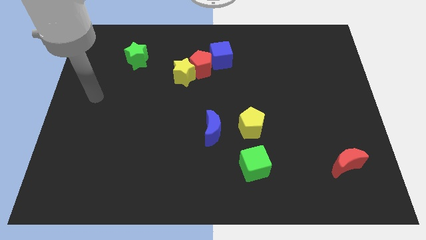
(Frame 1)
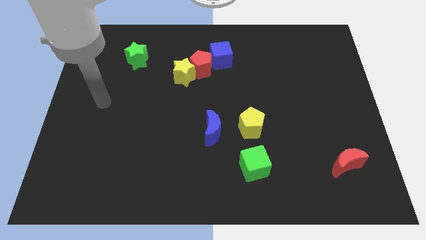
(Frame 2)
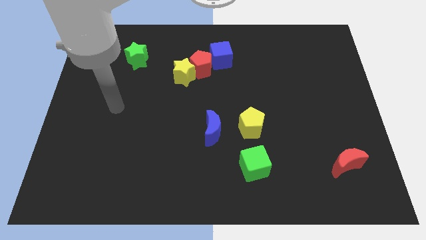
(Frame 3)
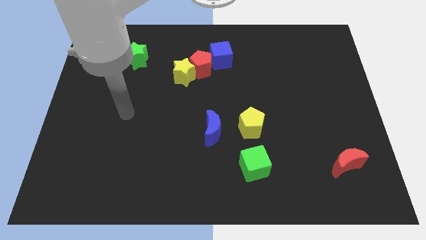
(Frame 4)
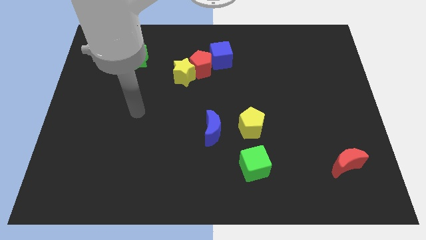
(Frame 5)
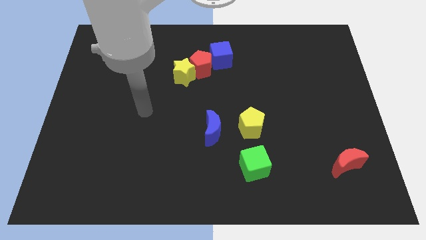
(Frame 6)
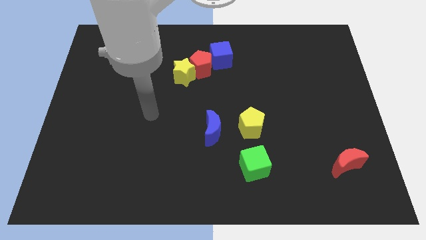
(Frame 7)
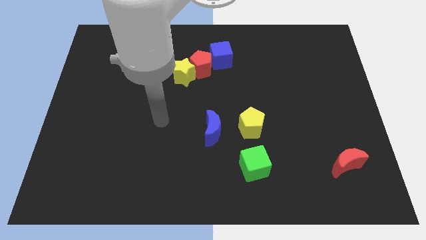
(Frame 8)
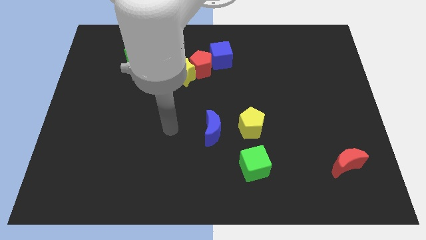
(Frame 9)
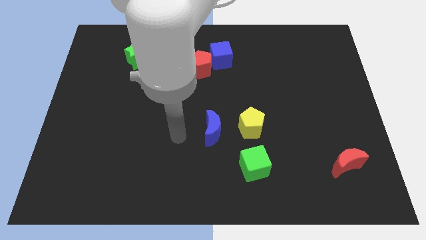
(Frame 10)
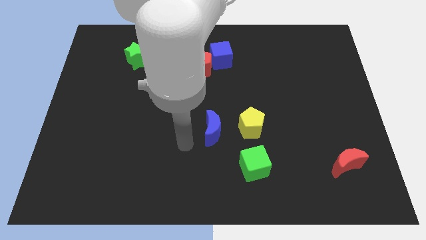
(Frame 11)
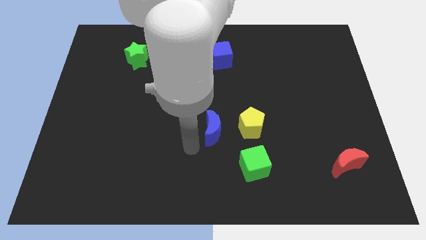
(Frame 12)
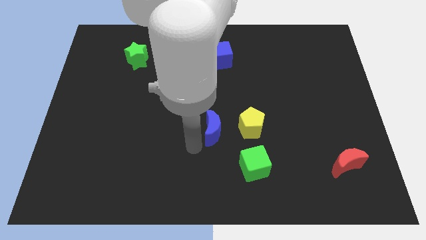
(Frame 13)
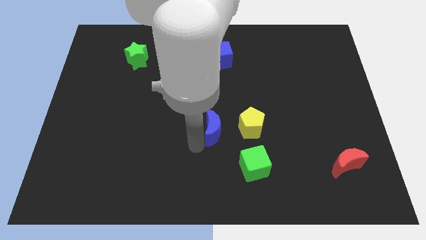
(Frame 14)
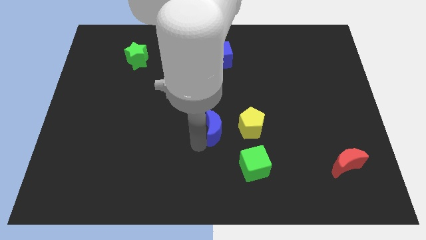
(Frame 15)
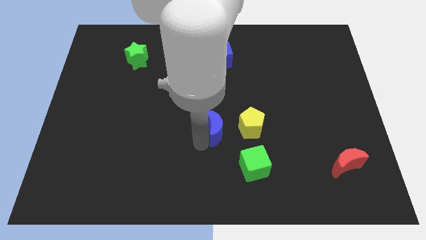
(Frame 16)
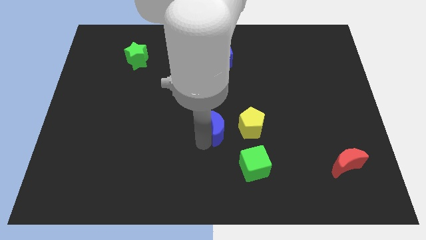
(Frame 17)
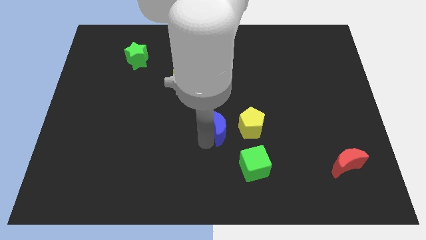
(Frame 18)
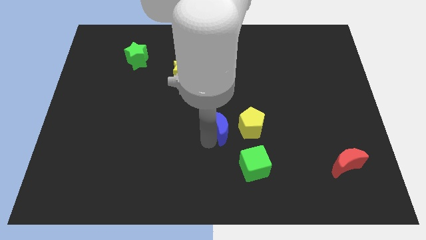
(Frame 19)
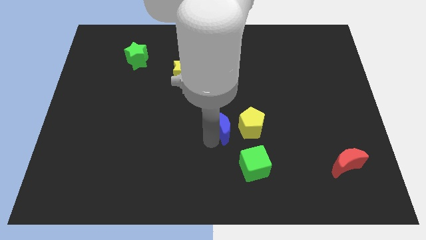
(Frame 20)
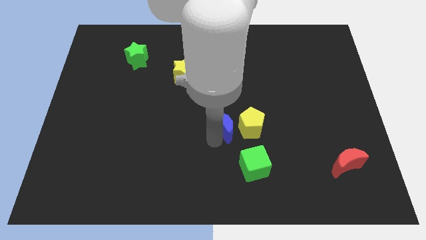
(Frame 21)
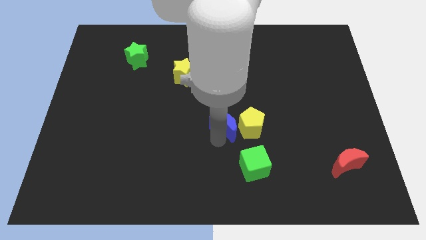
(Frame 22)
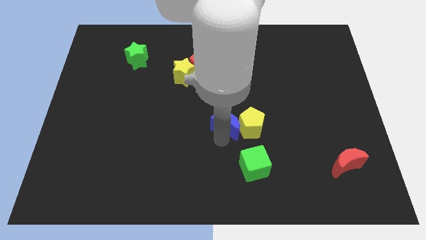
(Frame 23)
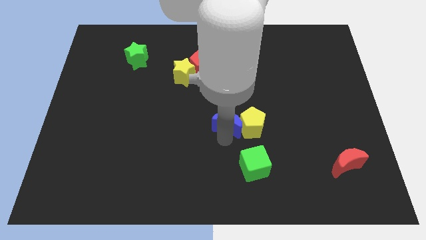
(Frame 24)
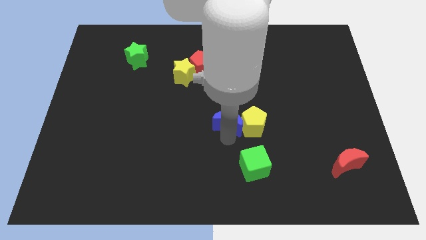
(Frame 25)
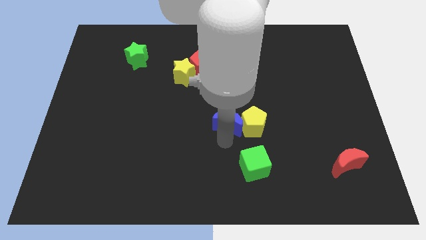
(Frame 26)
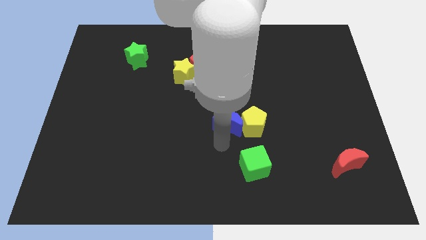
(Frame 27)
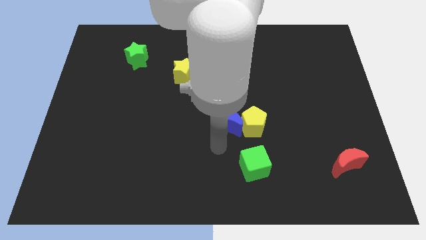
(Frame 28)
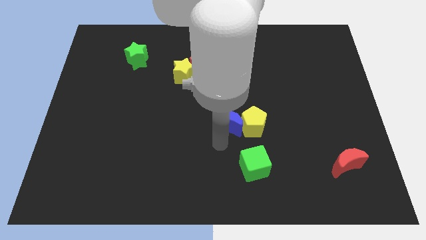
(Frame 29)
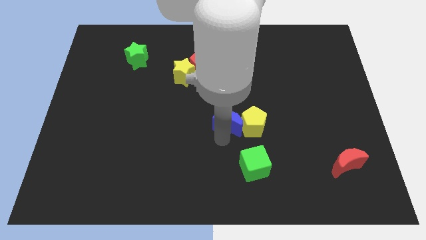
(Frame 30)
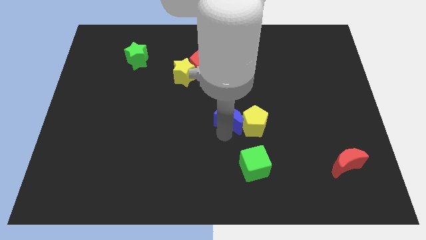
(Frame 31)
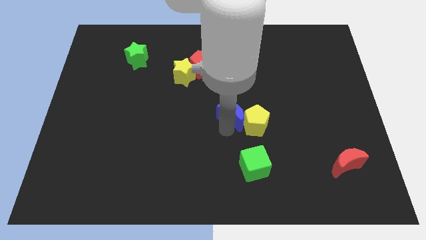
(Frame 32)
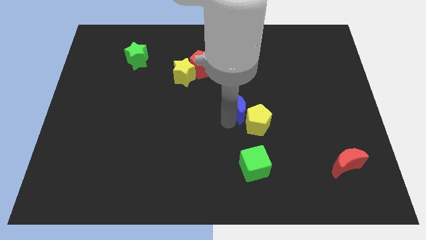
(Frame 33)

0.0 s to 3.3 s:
slide the blue moon upwards and right diagonally slightly

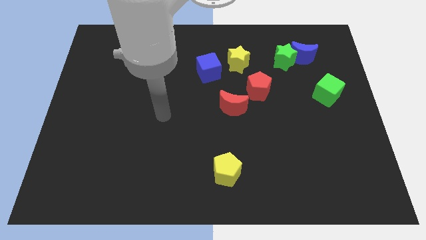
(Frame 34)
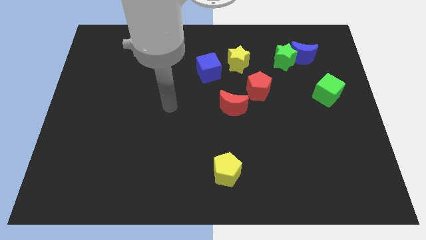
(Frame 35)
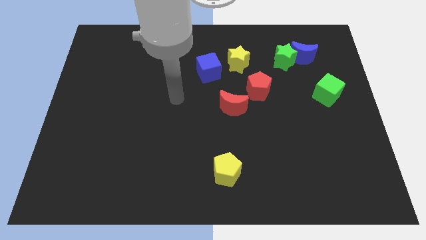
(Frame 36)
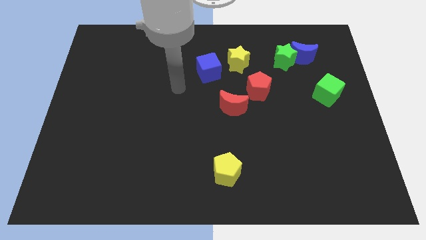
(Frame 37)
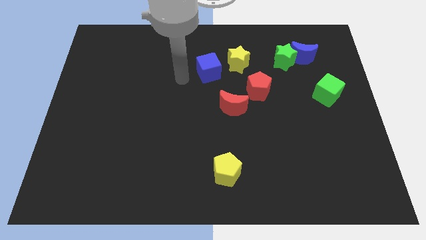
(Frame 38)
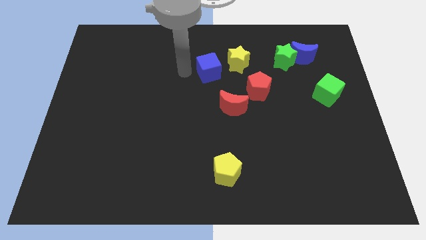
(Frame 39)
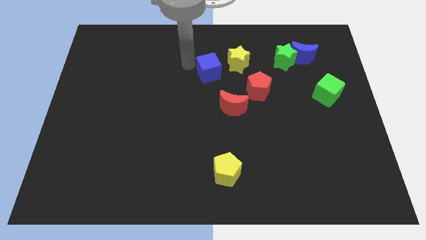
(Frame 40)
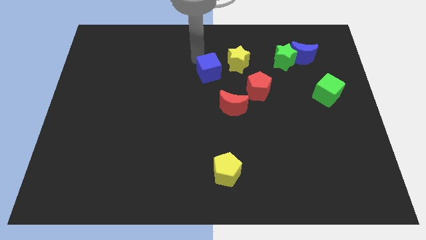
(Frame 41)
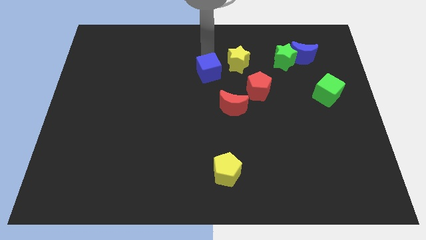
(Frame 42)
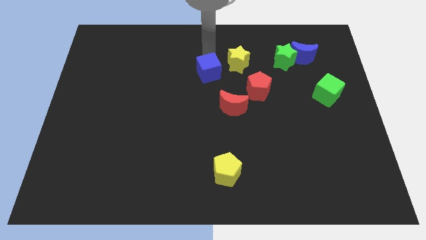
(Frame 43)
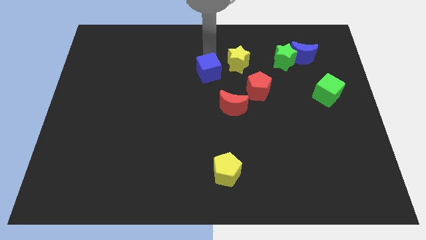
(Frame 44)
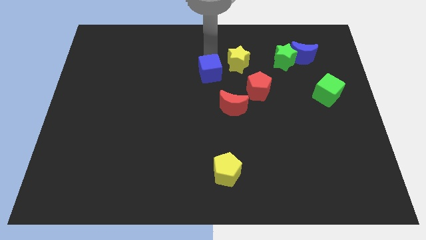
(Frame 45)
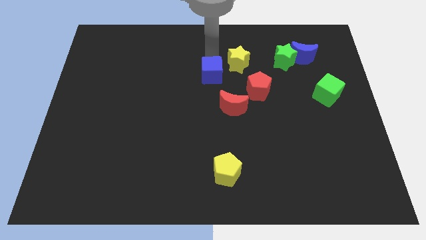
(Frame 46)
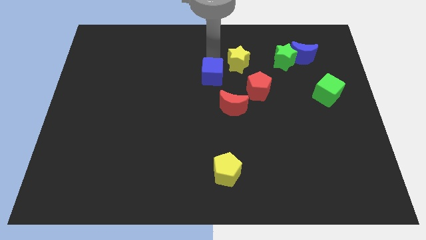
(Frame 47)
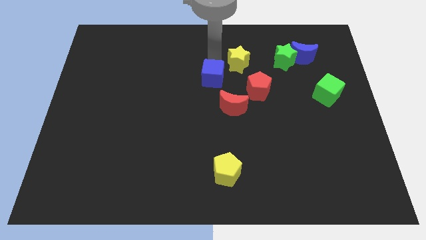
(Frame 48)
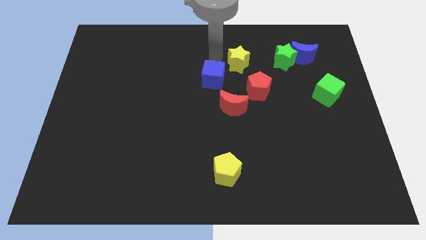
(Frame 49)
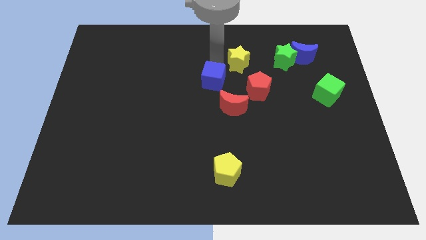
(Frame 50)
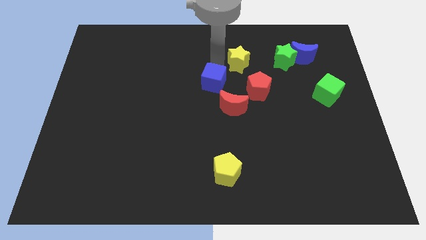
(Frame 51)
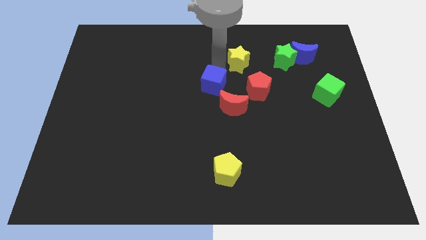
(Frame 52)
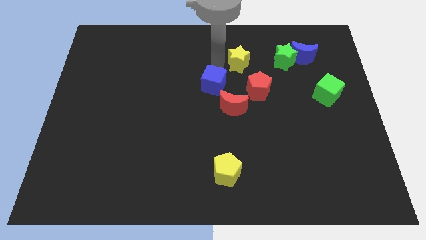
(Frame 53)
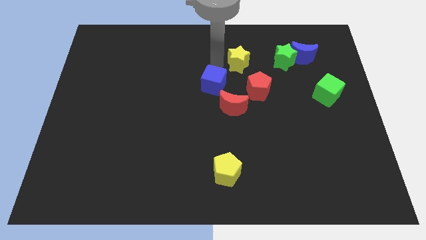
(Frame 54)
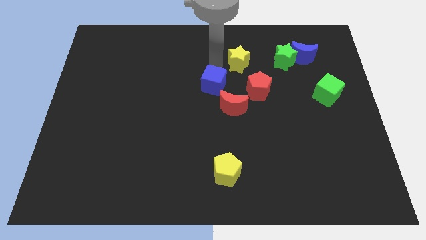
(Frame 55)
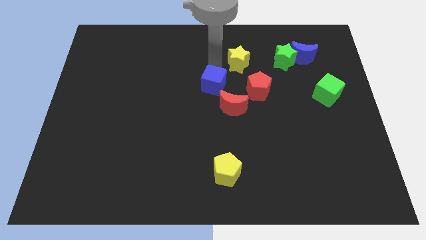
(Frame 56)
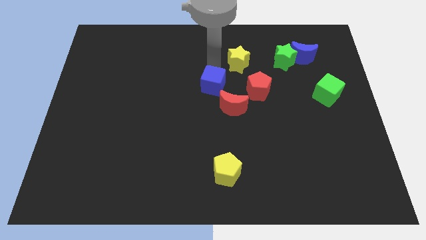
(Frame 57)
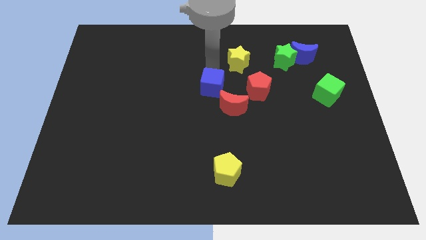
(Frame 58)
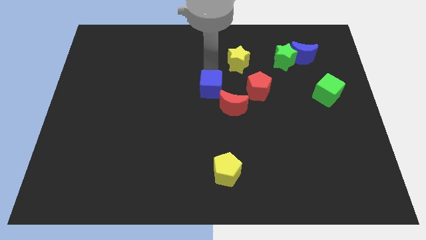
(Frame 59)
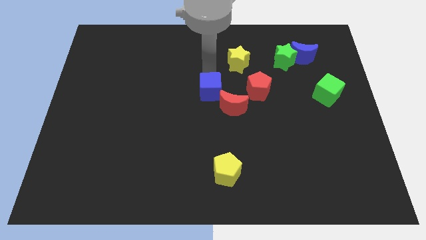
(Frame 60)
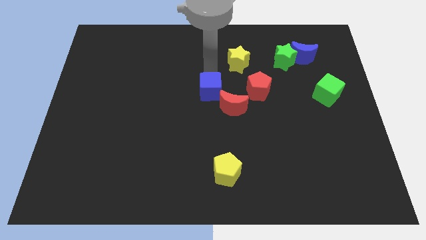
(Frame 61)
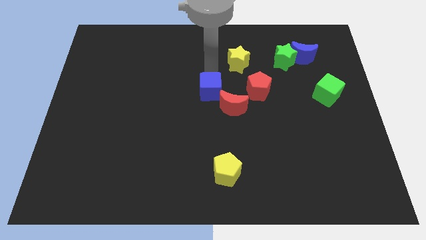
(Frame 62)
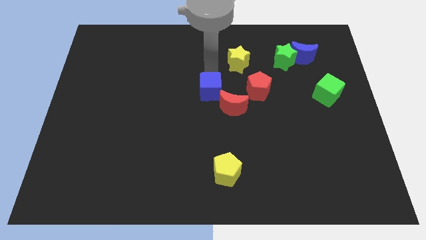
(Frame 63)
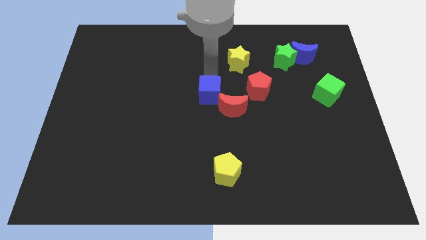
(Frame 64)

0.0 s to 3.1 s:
push the blue cube down slightly

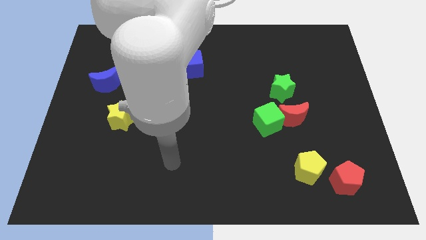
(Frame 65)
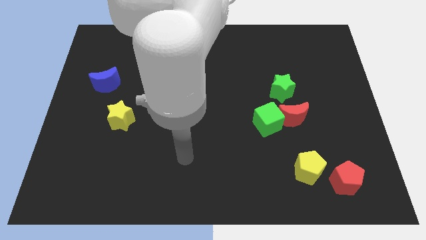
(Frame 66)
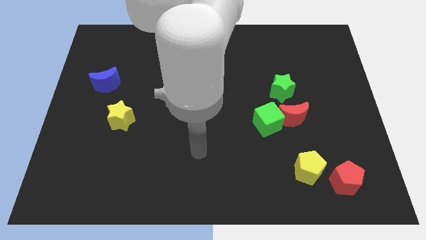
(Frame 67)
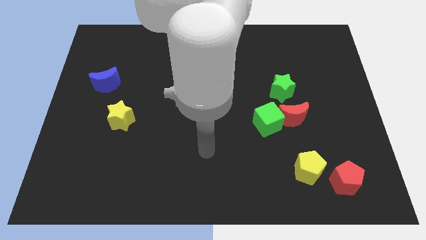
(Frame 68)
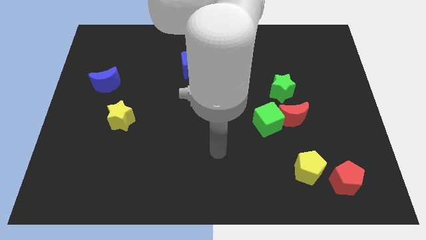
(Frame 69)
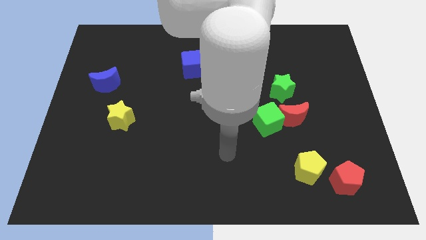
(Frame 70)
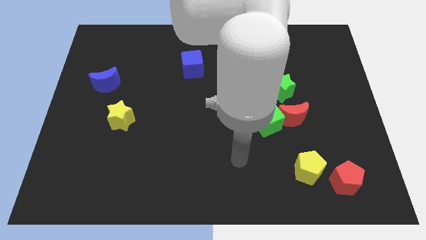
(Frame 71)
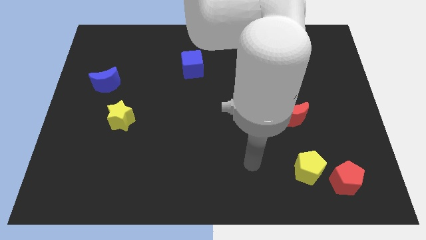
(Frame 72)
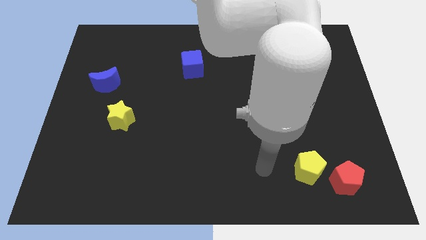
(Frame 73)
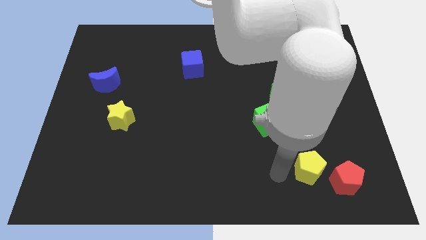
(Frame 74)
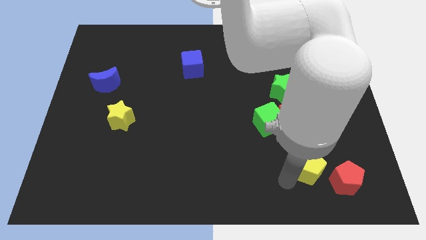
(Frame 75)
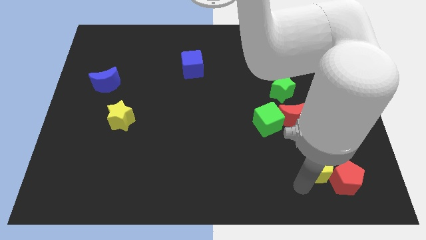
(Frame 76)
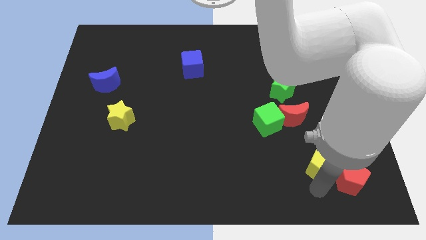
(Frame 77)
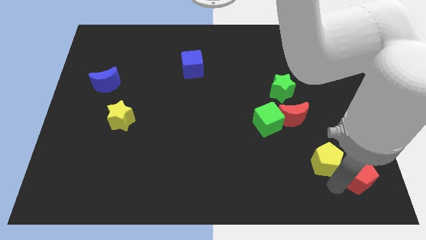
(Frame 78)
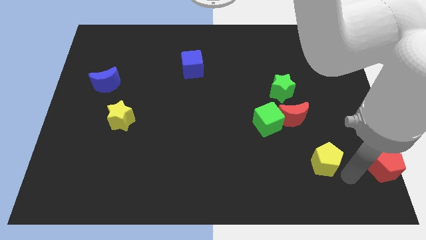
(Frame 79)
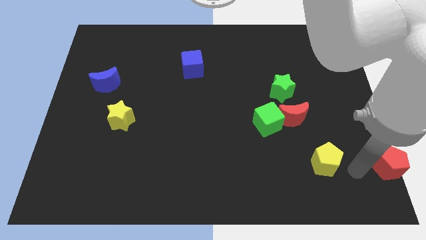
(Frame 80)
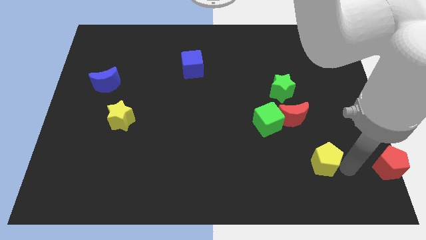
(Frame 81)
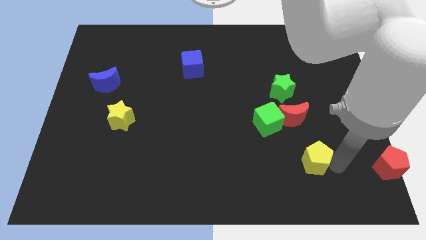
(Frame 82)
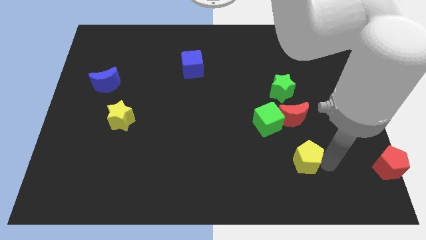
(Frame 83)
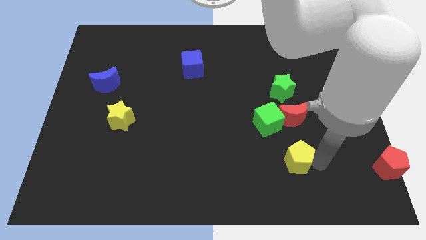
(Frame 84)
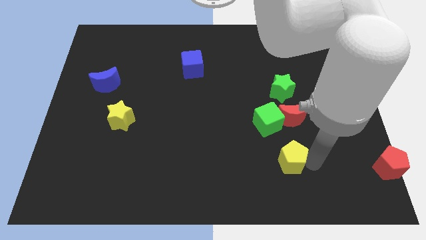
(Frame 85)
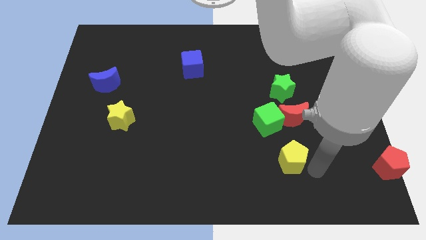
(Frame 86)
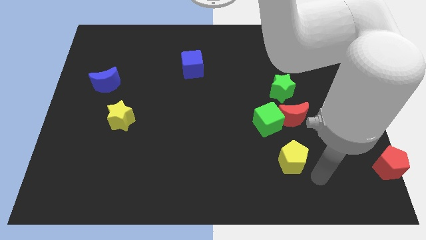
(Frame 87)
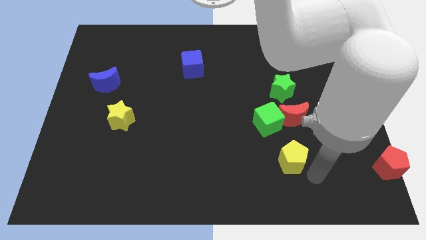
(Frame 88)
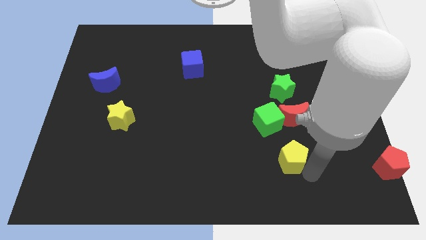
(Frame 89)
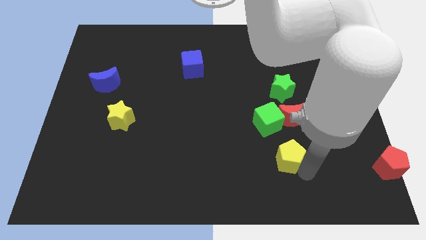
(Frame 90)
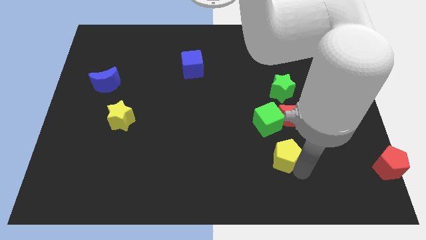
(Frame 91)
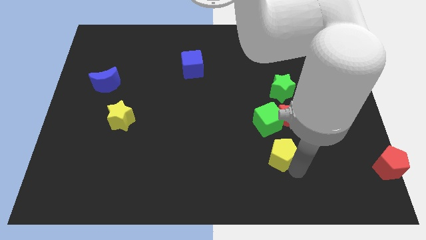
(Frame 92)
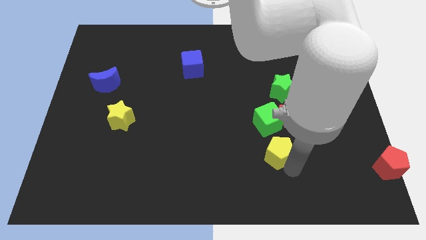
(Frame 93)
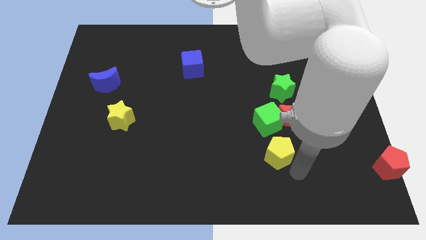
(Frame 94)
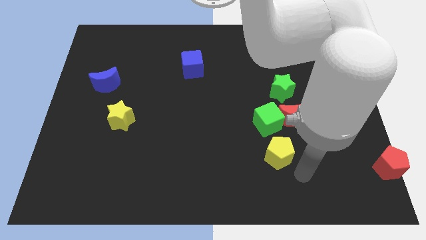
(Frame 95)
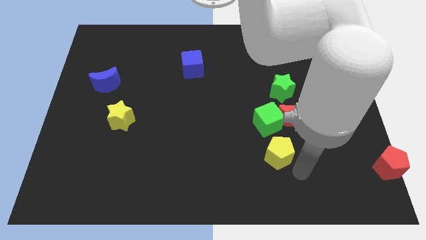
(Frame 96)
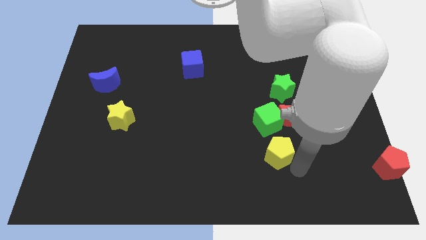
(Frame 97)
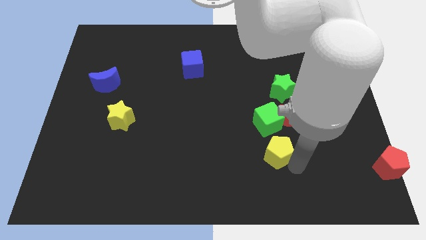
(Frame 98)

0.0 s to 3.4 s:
move the yellow pentagon a bit diagonally upwards and to the left
